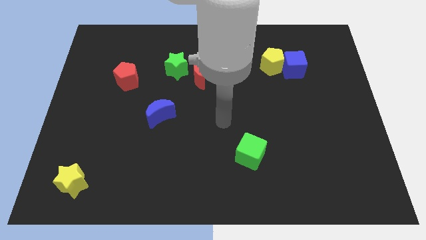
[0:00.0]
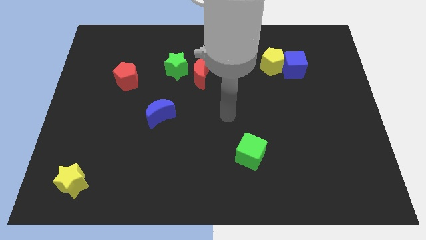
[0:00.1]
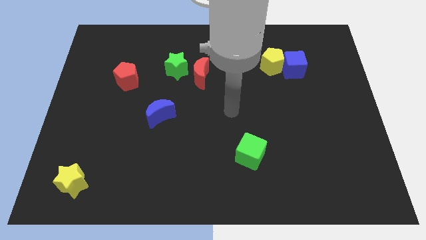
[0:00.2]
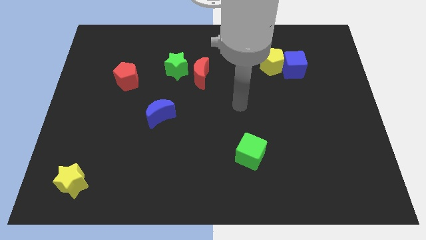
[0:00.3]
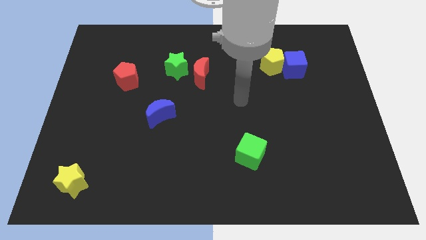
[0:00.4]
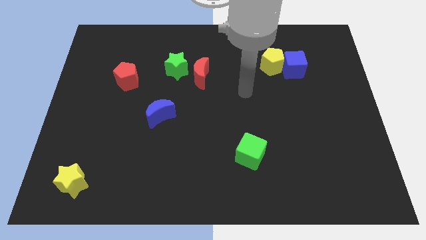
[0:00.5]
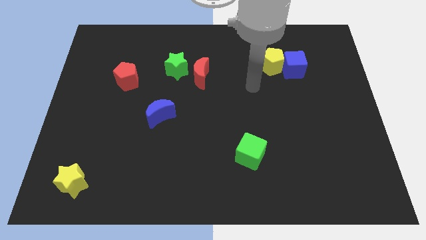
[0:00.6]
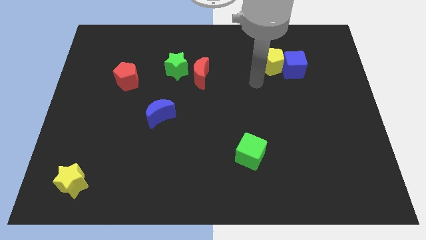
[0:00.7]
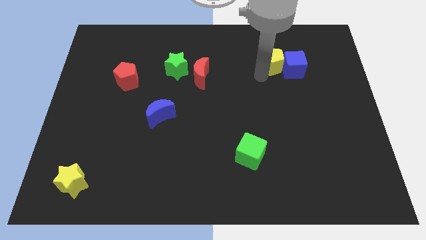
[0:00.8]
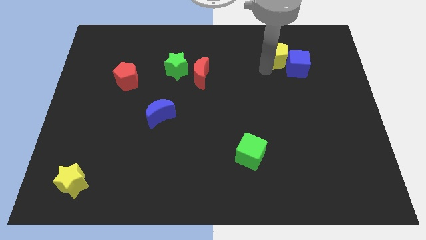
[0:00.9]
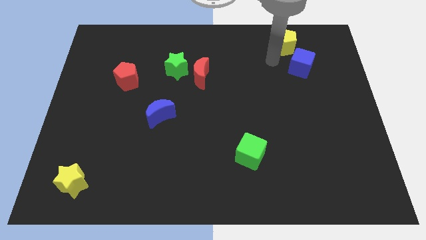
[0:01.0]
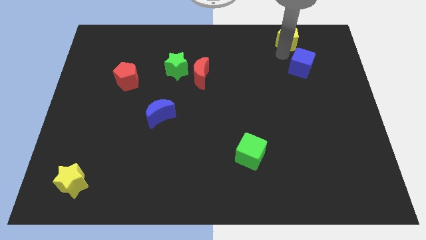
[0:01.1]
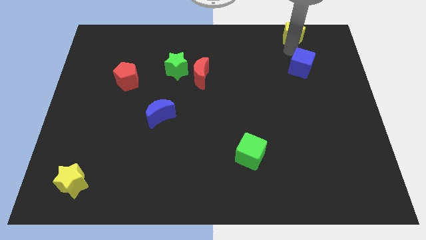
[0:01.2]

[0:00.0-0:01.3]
separate the blue cube from the yellow pentagon

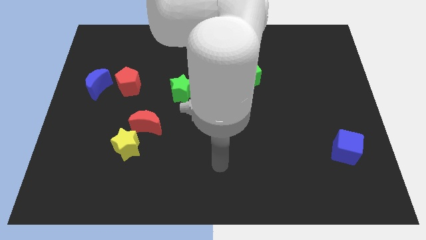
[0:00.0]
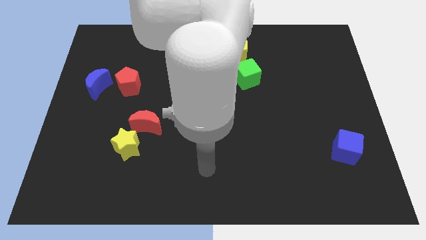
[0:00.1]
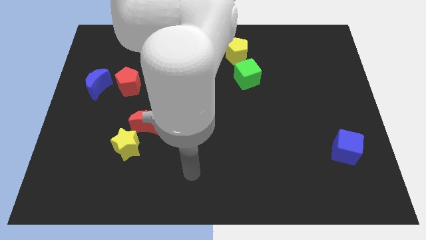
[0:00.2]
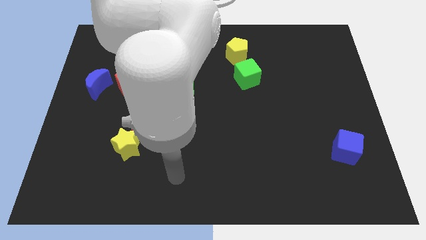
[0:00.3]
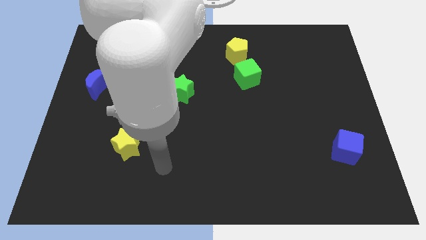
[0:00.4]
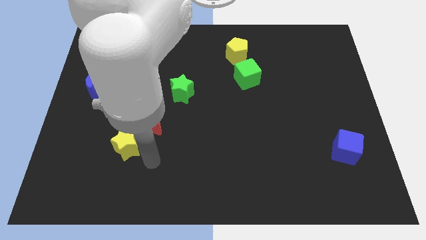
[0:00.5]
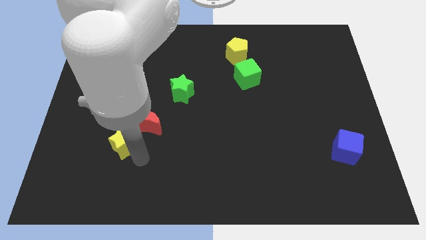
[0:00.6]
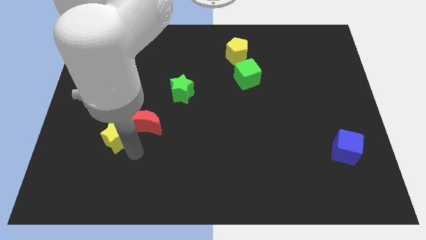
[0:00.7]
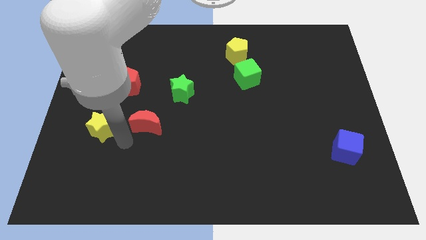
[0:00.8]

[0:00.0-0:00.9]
pull the red moon apart from the yellow star

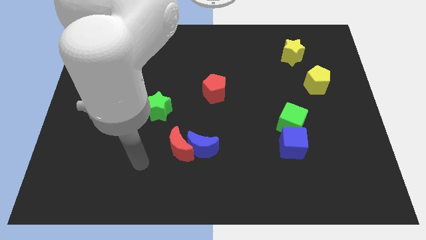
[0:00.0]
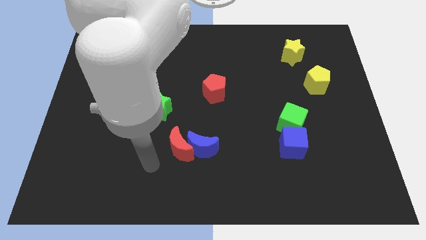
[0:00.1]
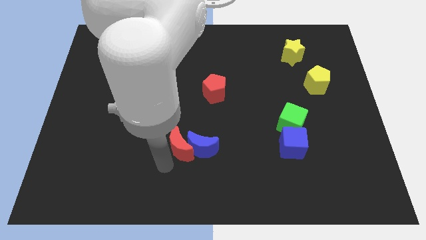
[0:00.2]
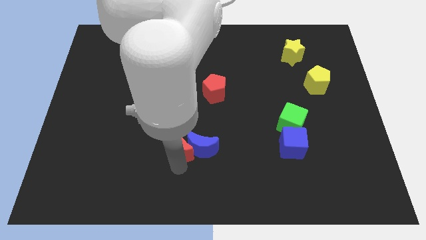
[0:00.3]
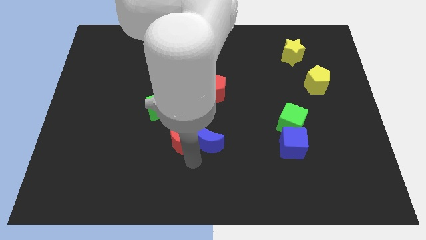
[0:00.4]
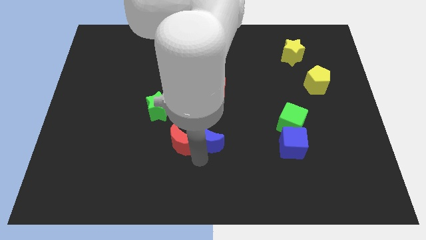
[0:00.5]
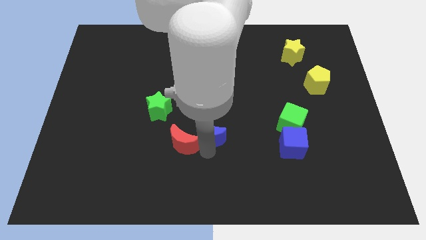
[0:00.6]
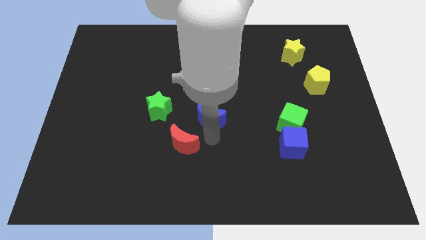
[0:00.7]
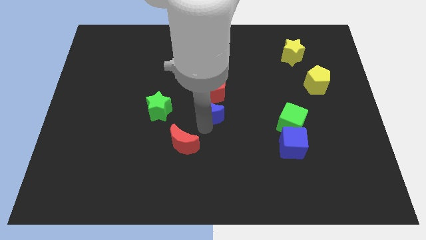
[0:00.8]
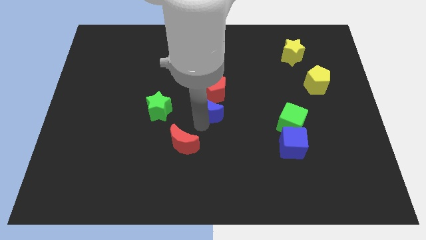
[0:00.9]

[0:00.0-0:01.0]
pull the red moon apart from the blue moon

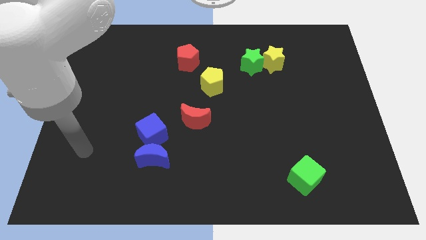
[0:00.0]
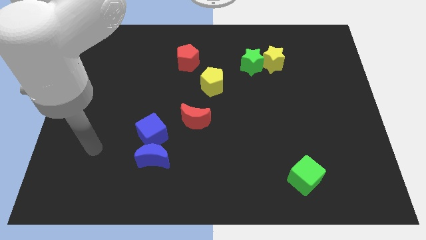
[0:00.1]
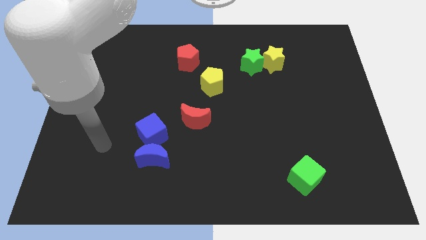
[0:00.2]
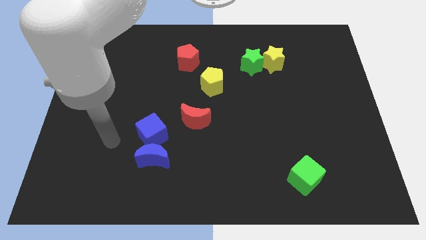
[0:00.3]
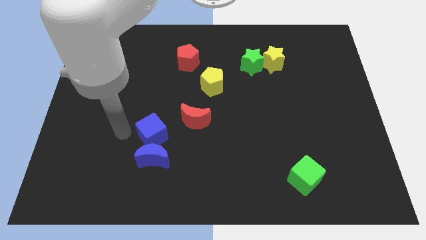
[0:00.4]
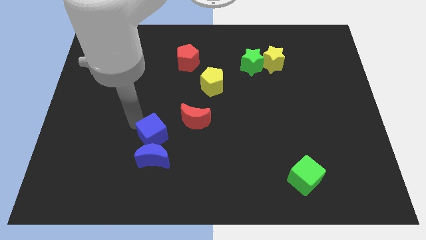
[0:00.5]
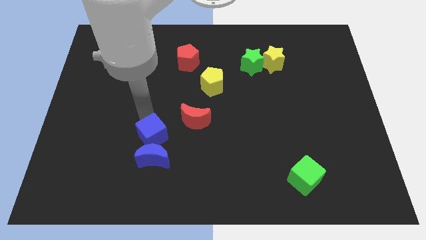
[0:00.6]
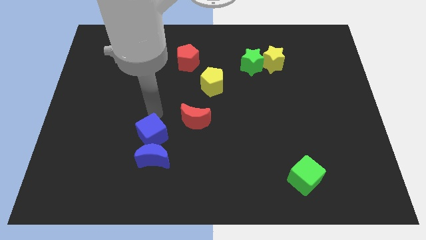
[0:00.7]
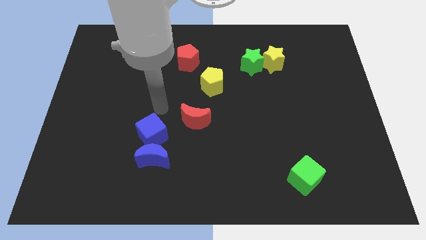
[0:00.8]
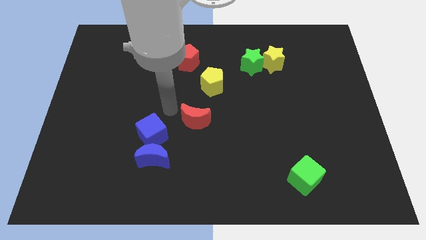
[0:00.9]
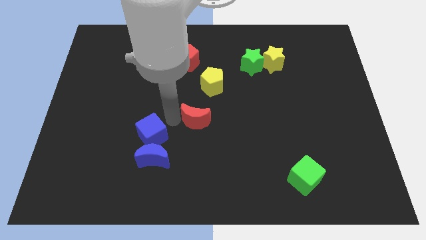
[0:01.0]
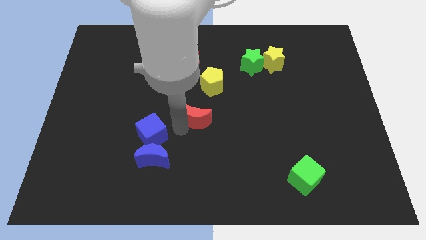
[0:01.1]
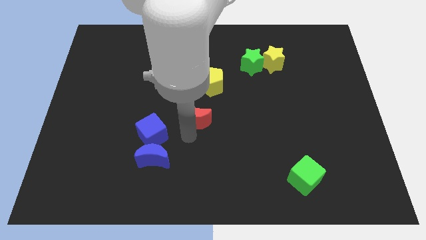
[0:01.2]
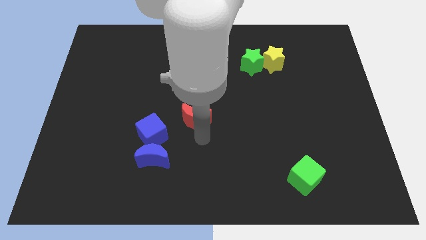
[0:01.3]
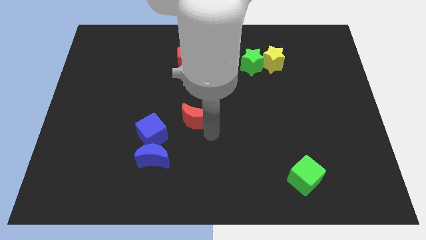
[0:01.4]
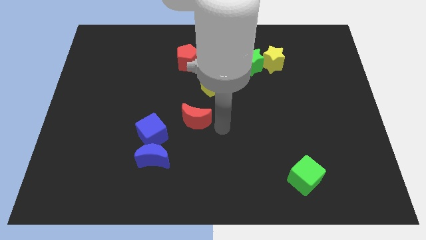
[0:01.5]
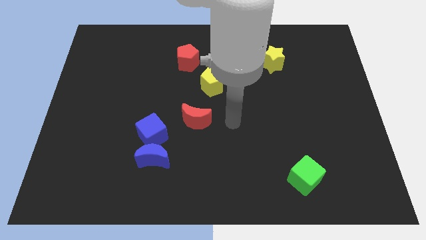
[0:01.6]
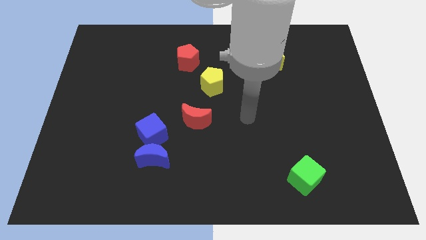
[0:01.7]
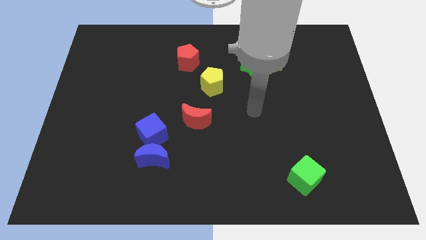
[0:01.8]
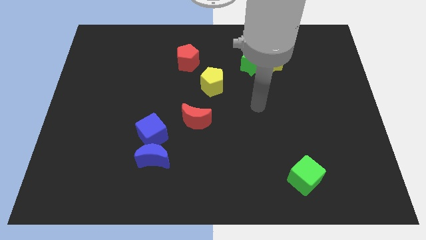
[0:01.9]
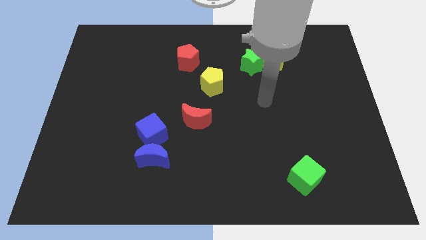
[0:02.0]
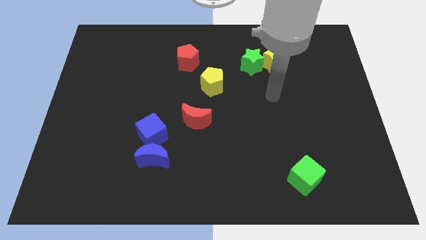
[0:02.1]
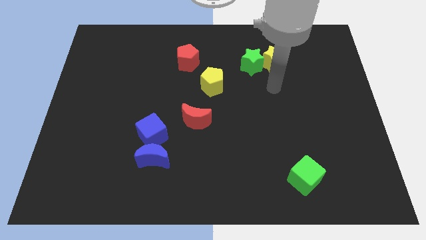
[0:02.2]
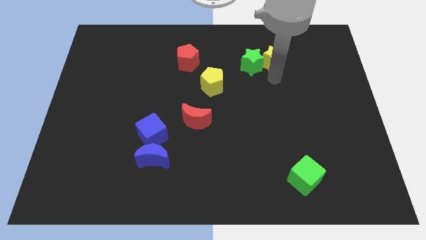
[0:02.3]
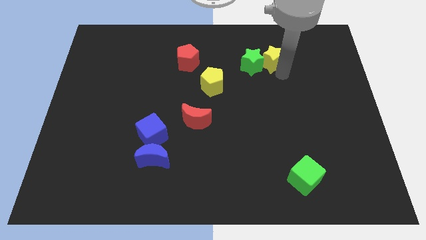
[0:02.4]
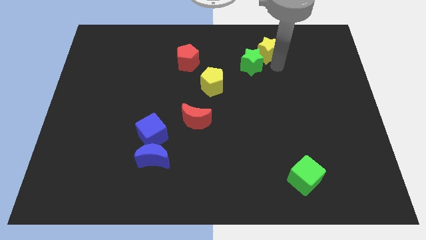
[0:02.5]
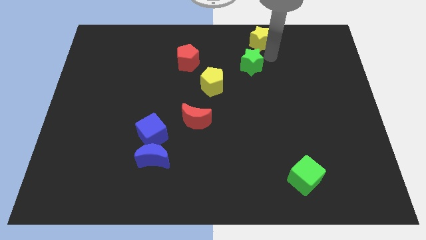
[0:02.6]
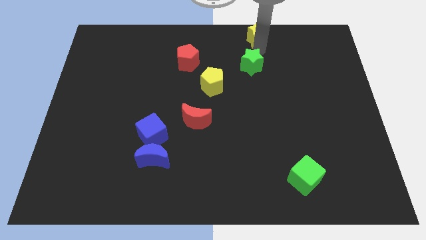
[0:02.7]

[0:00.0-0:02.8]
move the green star away from the yellow star

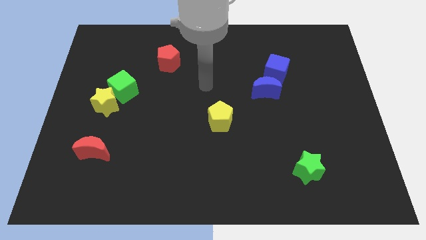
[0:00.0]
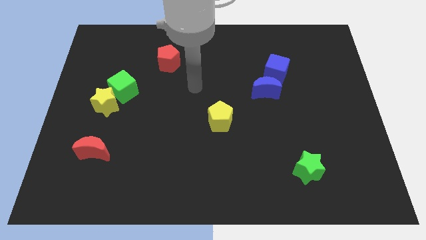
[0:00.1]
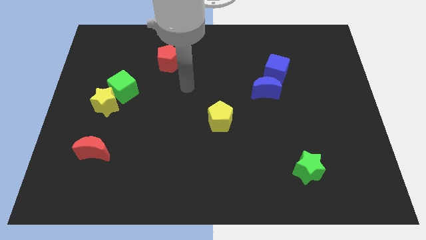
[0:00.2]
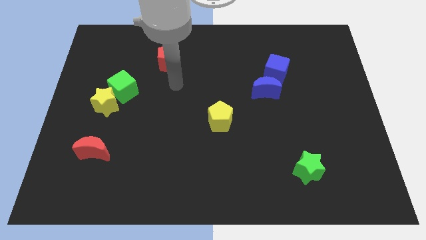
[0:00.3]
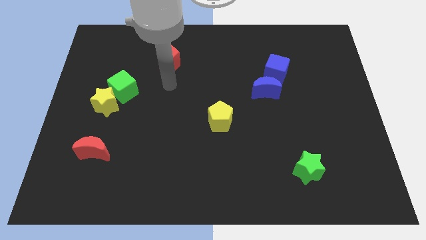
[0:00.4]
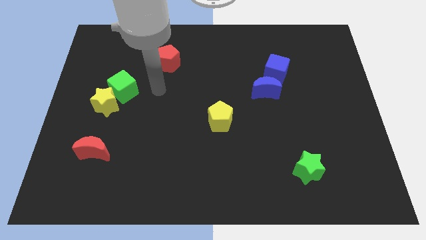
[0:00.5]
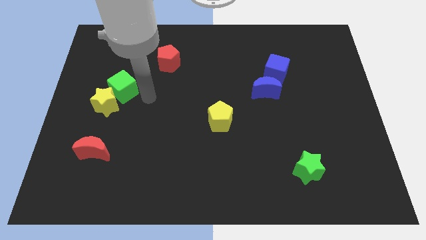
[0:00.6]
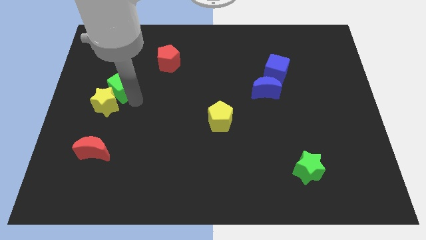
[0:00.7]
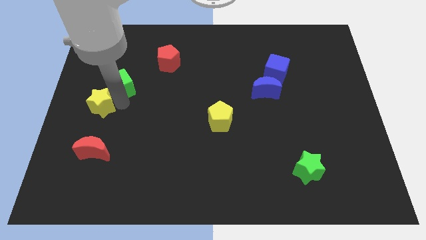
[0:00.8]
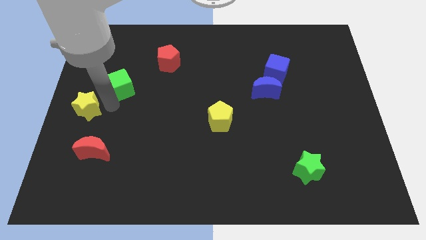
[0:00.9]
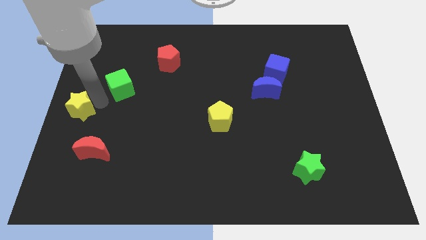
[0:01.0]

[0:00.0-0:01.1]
move the green cube away from the yellow star

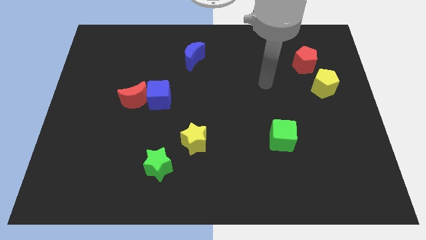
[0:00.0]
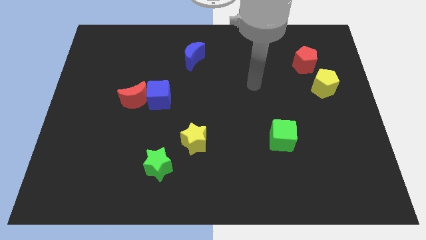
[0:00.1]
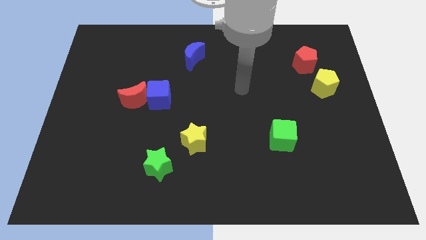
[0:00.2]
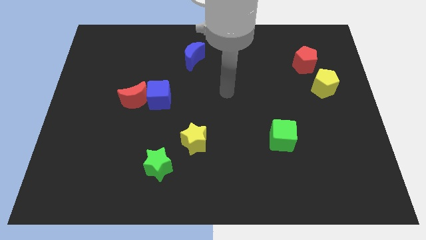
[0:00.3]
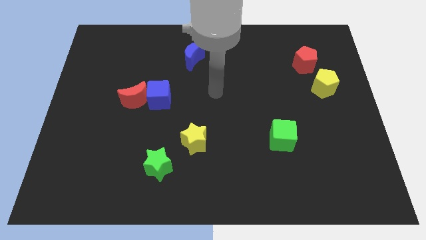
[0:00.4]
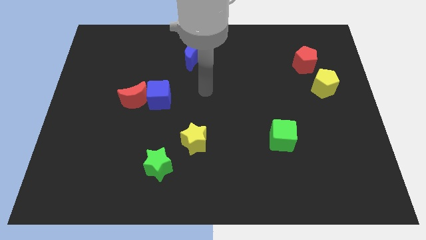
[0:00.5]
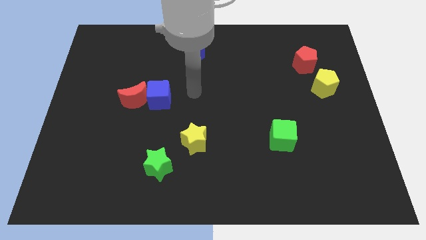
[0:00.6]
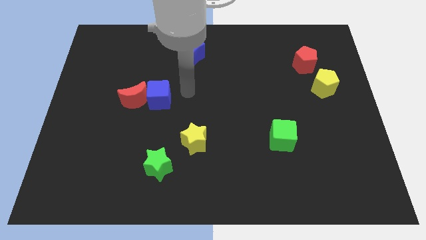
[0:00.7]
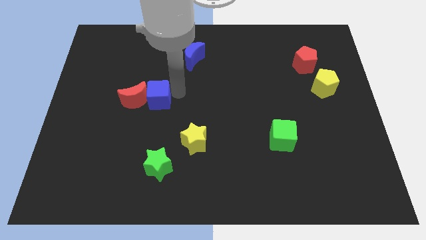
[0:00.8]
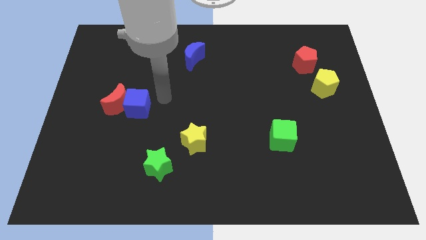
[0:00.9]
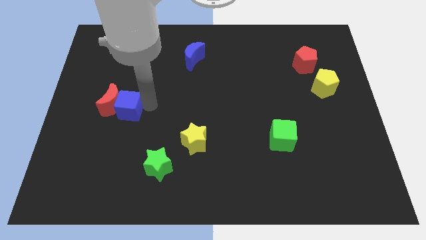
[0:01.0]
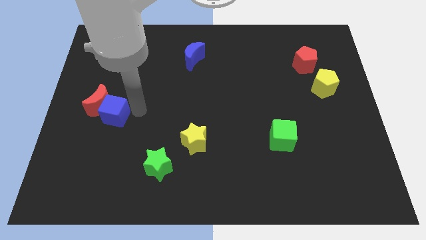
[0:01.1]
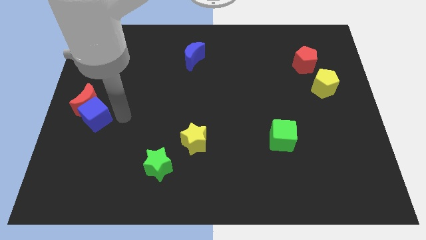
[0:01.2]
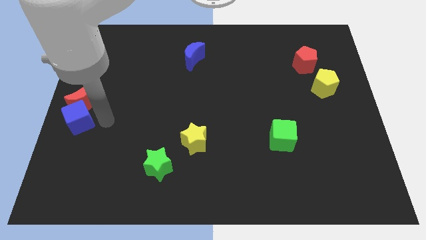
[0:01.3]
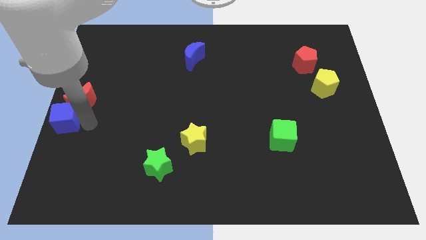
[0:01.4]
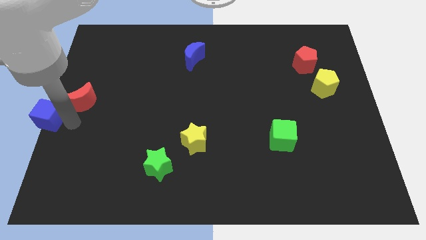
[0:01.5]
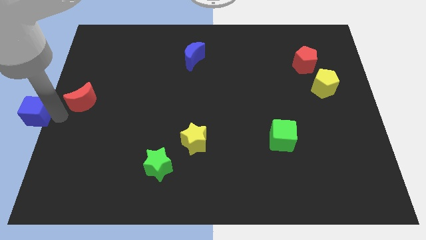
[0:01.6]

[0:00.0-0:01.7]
separate the red moon from the blue cube

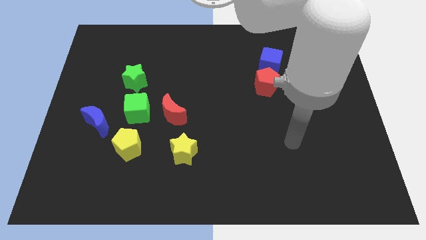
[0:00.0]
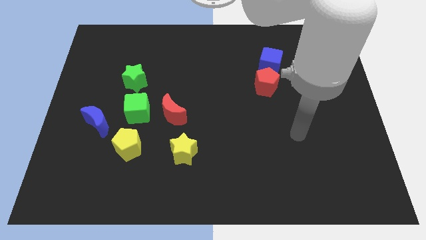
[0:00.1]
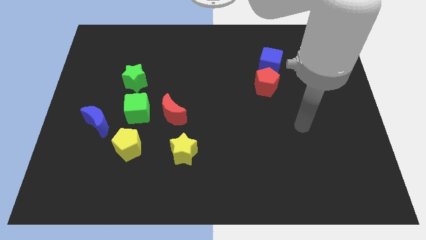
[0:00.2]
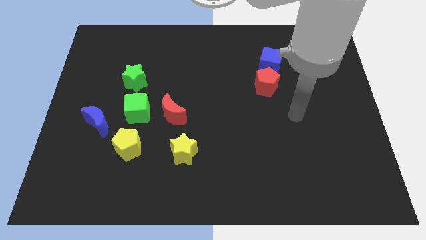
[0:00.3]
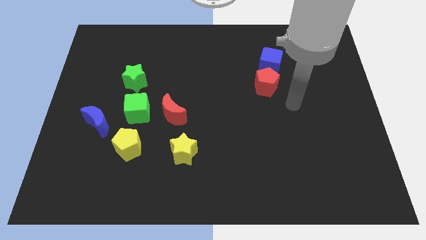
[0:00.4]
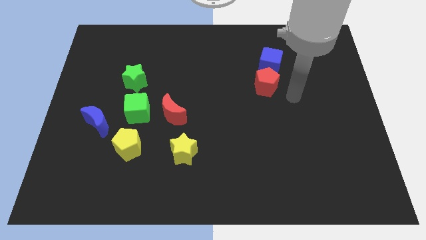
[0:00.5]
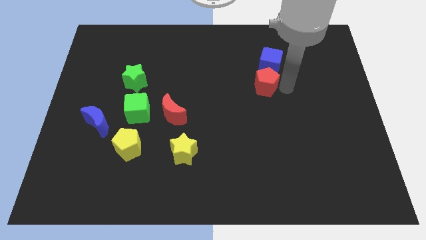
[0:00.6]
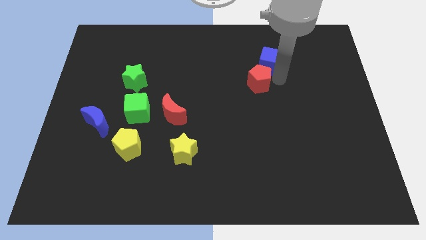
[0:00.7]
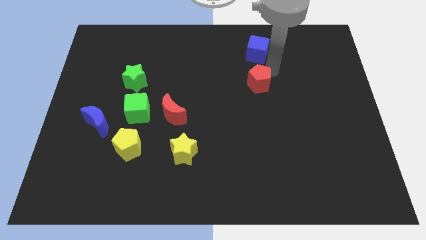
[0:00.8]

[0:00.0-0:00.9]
pull the red pentagon apart from the blue cube
